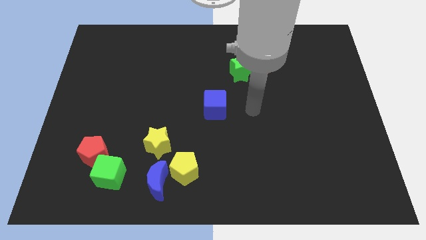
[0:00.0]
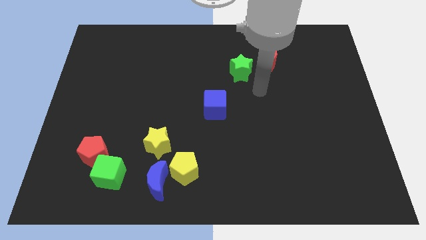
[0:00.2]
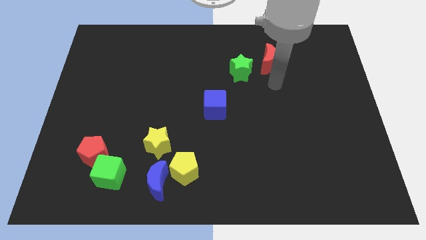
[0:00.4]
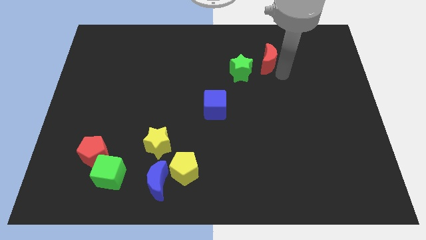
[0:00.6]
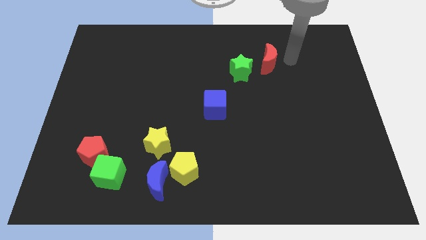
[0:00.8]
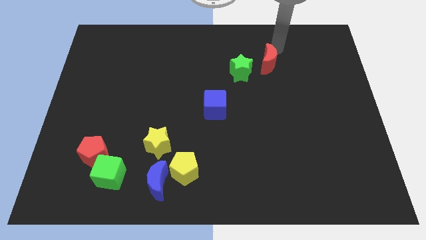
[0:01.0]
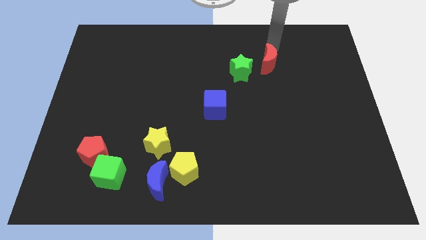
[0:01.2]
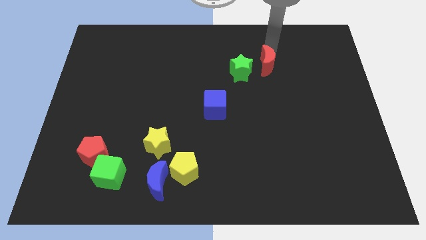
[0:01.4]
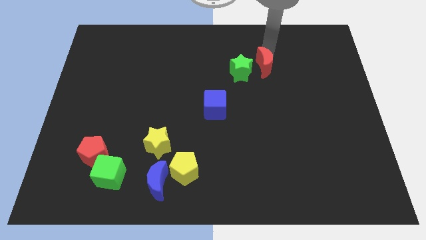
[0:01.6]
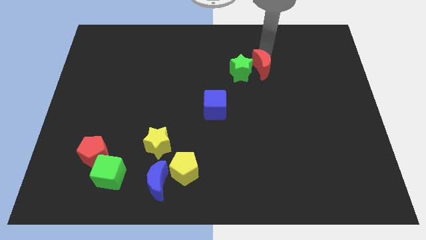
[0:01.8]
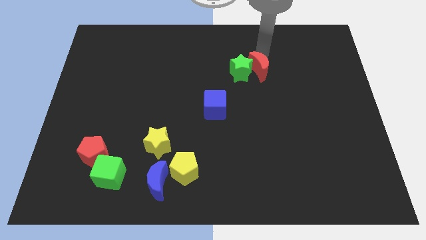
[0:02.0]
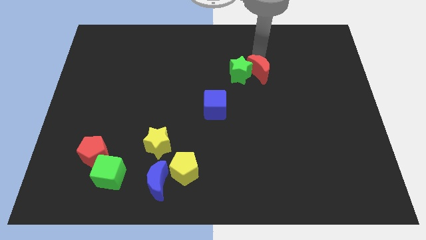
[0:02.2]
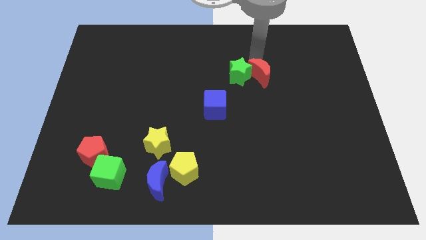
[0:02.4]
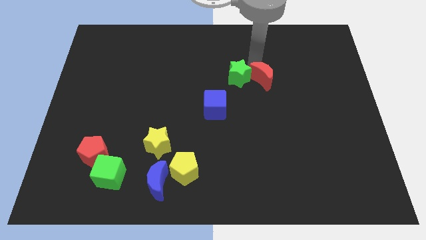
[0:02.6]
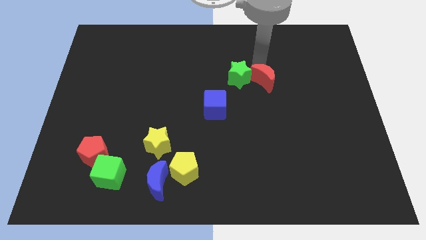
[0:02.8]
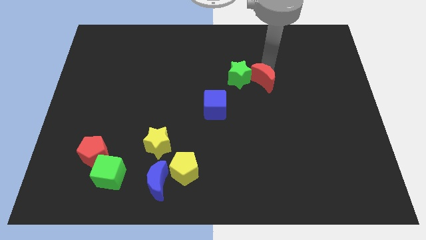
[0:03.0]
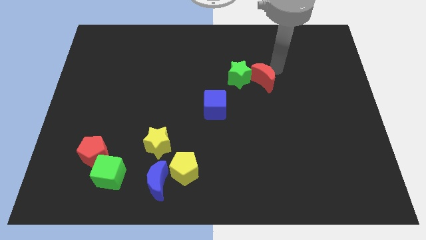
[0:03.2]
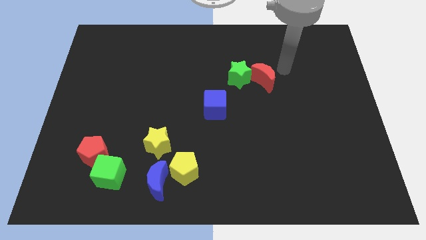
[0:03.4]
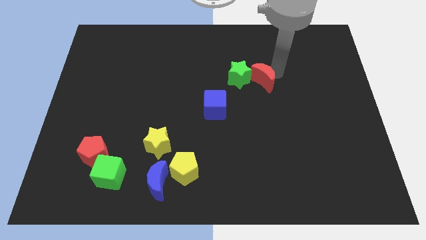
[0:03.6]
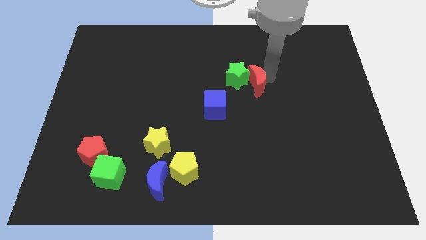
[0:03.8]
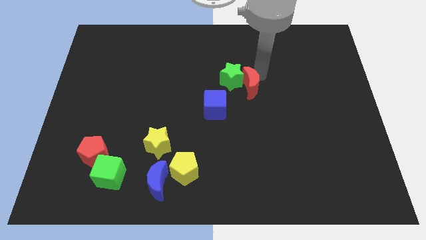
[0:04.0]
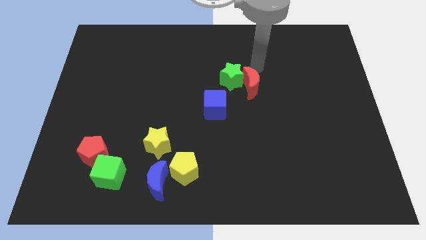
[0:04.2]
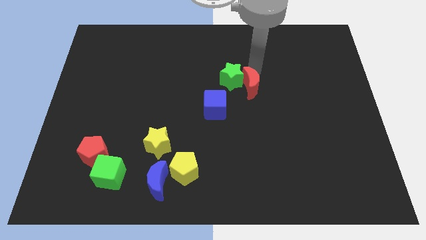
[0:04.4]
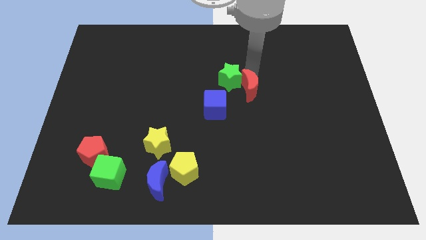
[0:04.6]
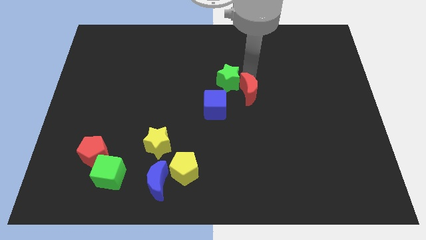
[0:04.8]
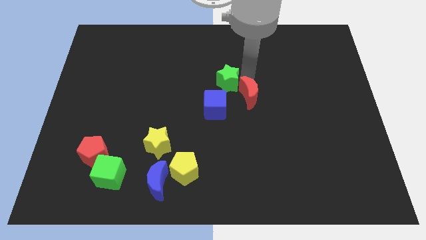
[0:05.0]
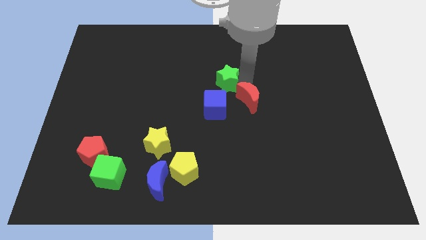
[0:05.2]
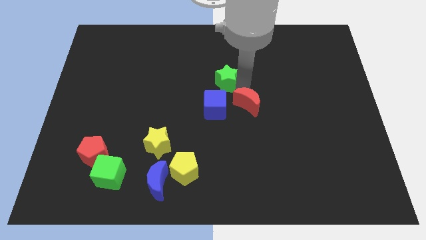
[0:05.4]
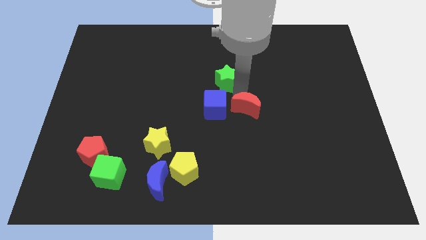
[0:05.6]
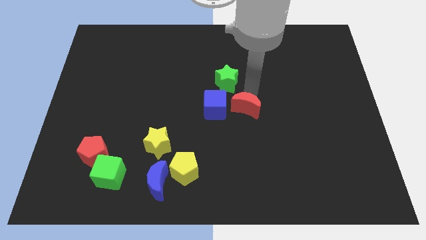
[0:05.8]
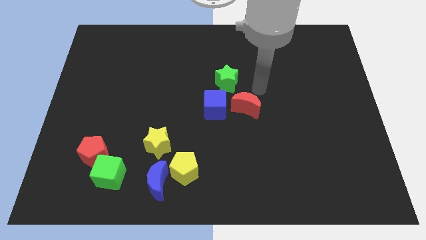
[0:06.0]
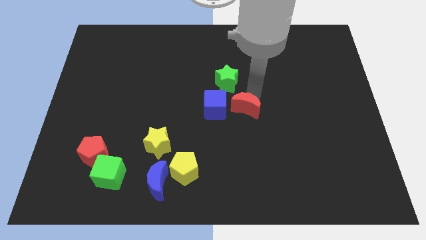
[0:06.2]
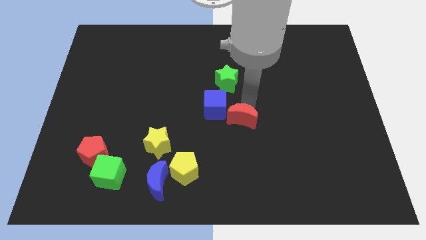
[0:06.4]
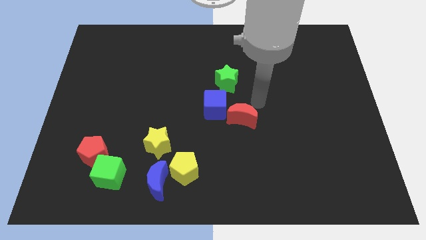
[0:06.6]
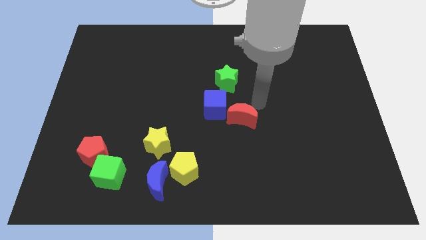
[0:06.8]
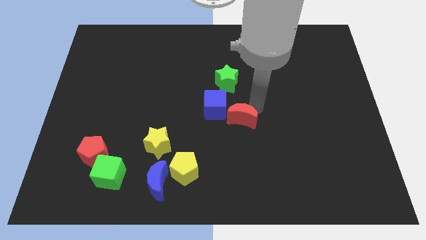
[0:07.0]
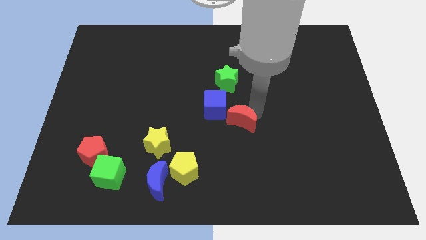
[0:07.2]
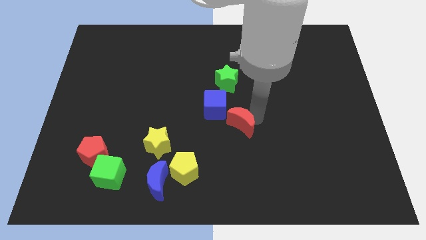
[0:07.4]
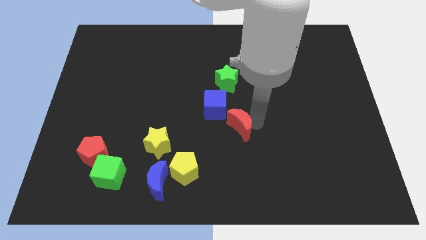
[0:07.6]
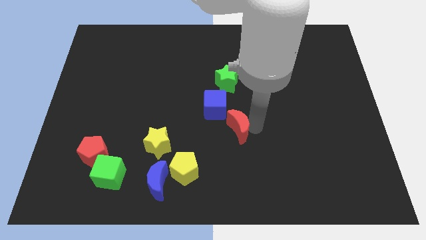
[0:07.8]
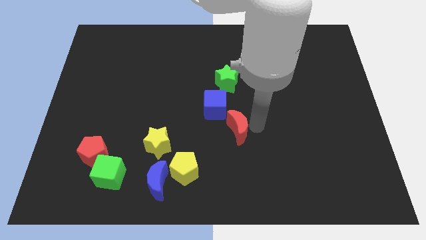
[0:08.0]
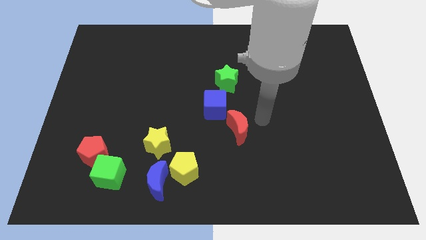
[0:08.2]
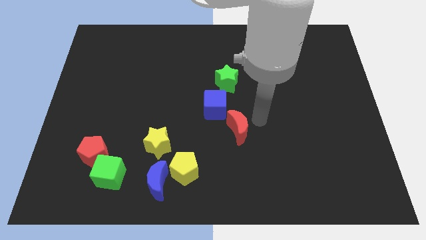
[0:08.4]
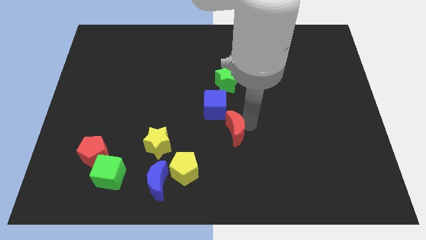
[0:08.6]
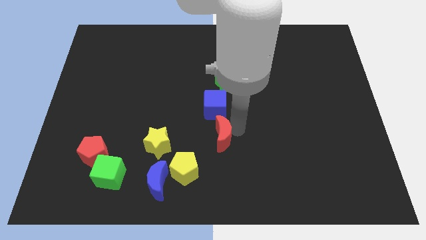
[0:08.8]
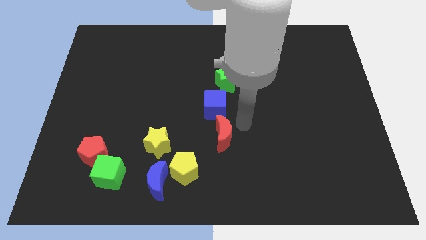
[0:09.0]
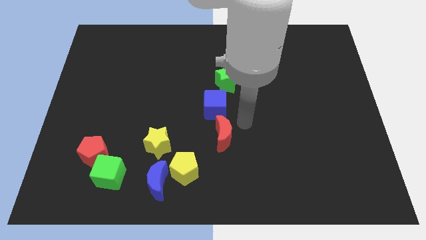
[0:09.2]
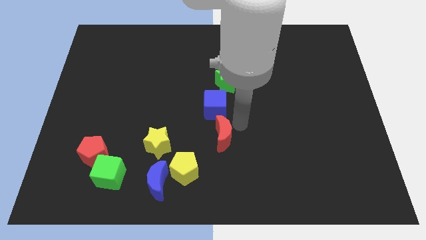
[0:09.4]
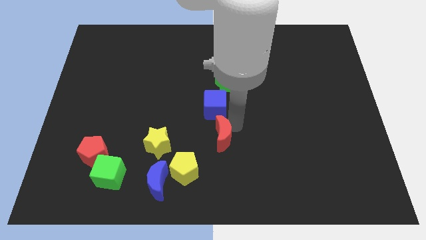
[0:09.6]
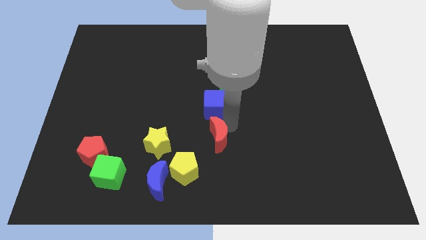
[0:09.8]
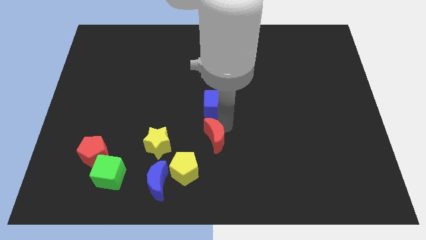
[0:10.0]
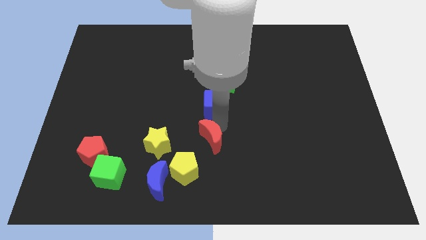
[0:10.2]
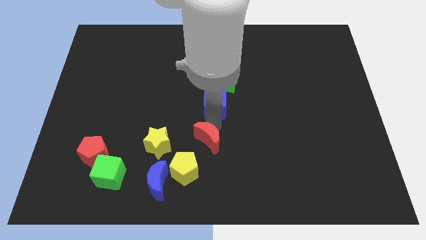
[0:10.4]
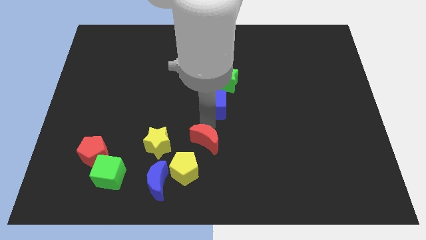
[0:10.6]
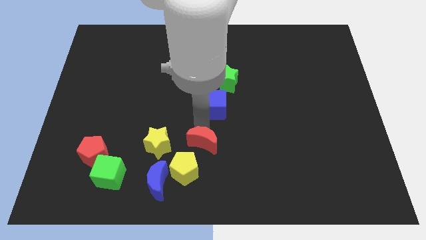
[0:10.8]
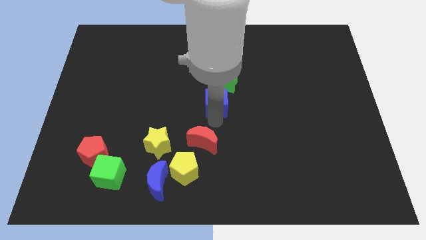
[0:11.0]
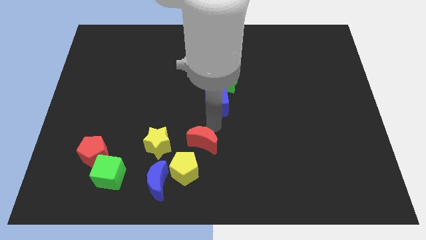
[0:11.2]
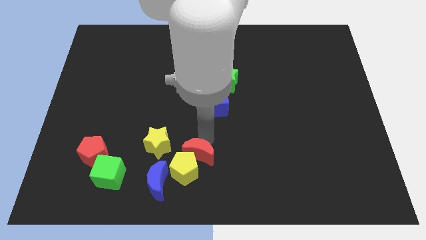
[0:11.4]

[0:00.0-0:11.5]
slide the red moon next to the yellow pentagon

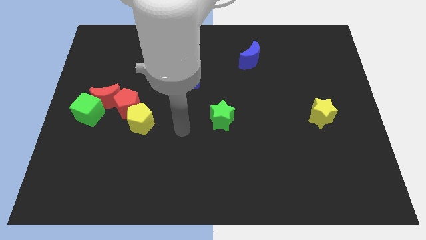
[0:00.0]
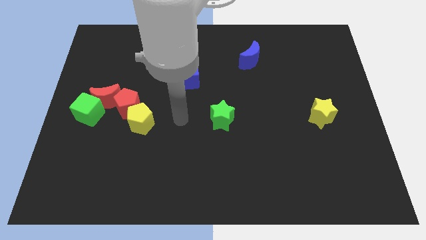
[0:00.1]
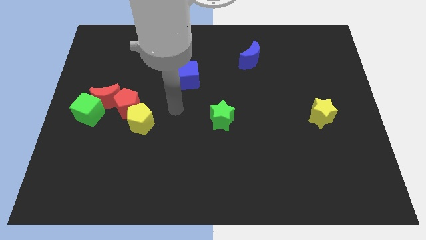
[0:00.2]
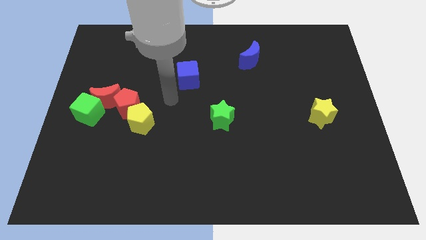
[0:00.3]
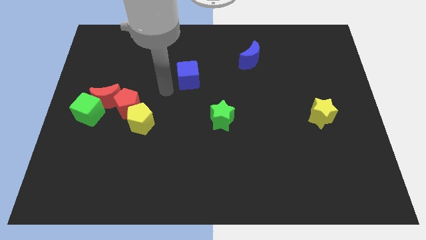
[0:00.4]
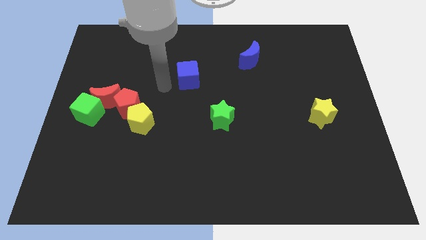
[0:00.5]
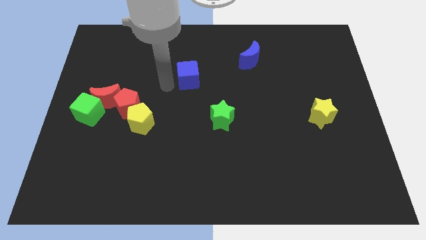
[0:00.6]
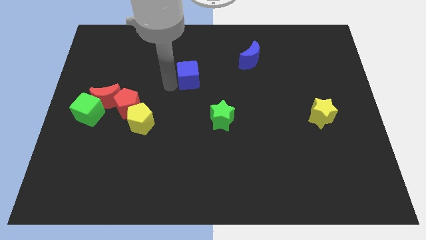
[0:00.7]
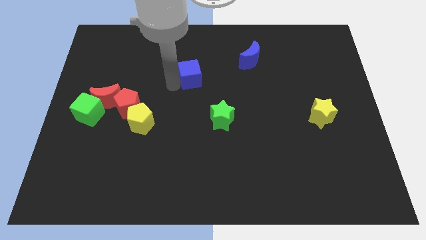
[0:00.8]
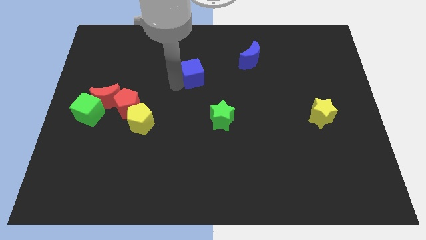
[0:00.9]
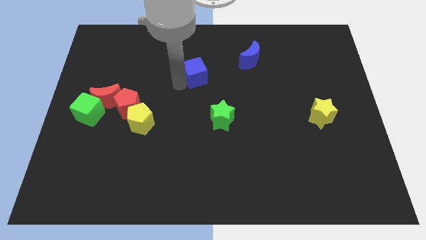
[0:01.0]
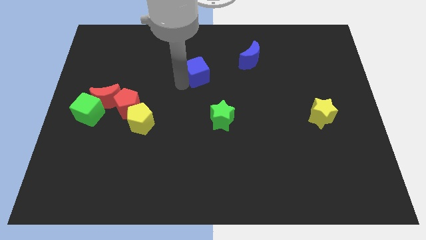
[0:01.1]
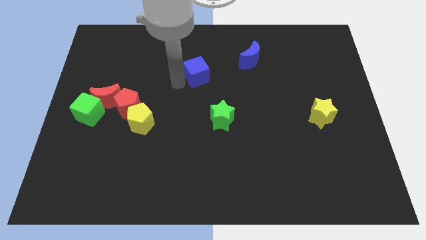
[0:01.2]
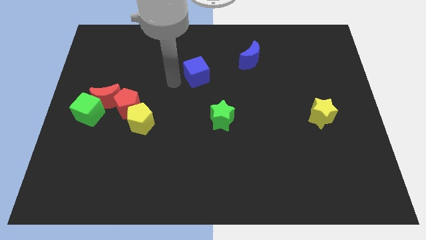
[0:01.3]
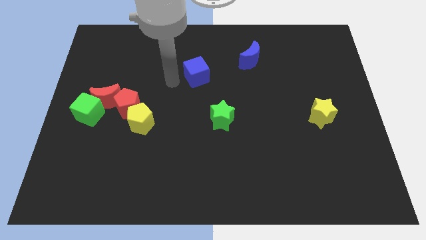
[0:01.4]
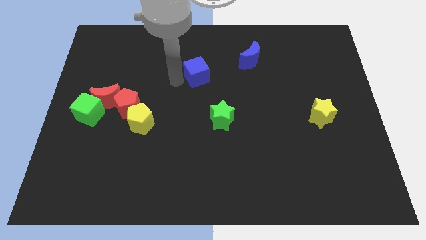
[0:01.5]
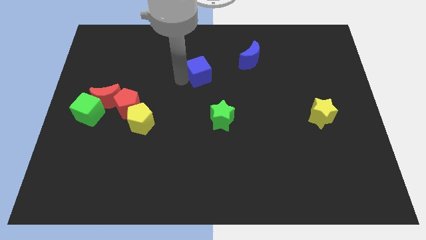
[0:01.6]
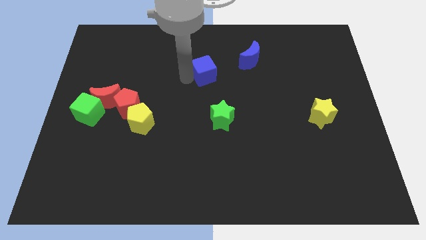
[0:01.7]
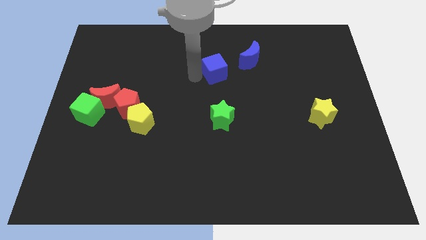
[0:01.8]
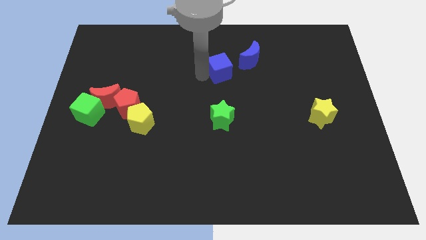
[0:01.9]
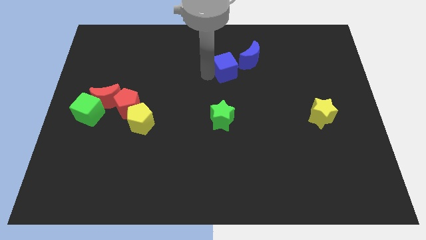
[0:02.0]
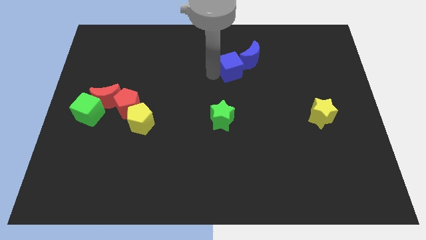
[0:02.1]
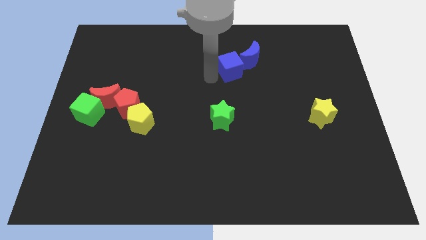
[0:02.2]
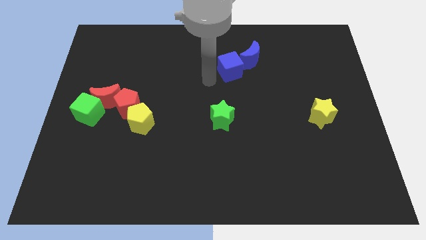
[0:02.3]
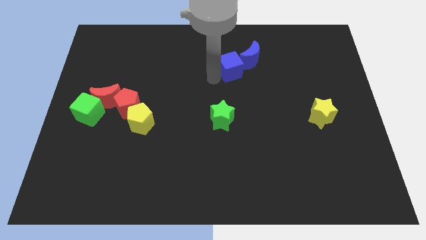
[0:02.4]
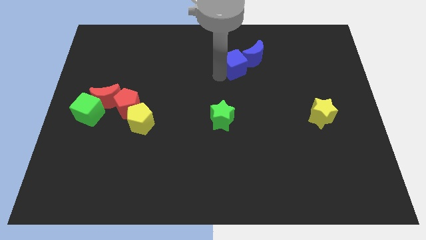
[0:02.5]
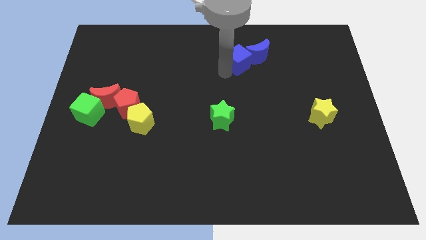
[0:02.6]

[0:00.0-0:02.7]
push the blue cube next to the blue moon
